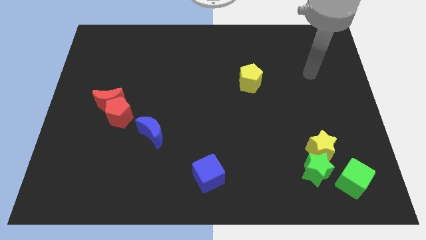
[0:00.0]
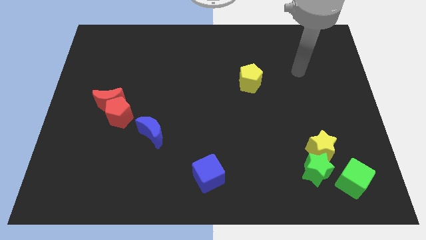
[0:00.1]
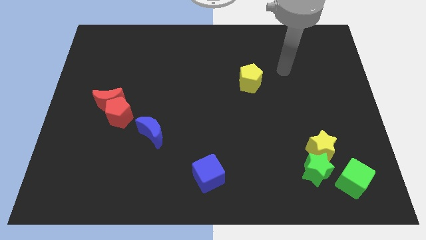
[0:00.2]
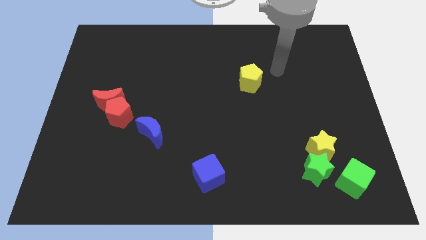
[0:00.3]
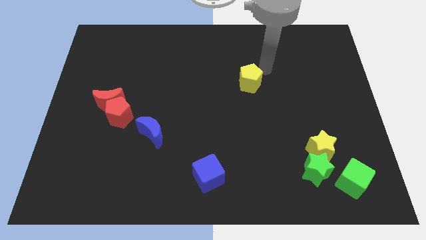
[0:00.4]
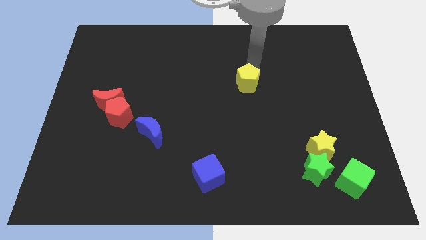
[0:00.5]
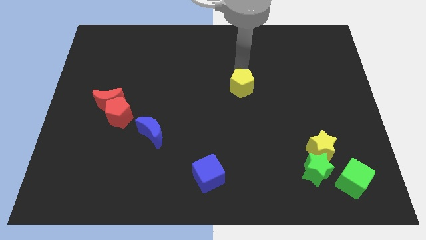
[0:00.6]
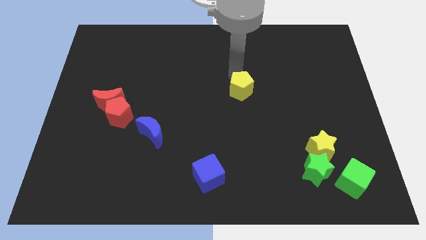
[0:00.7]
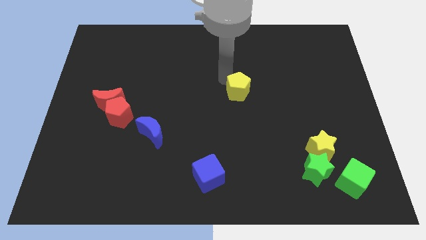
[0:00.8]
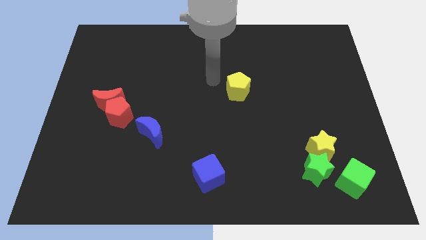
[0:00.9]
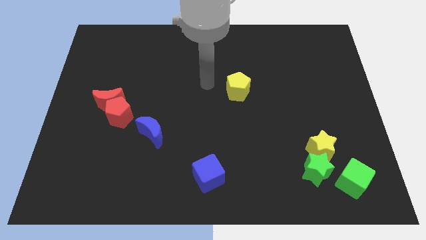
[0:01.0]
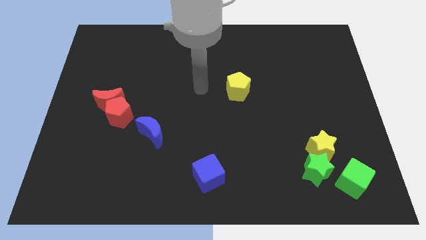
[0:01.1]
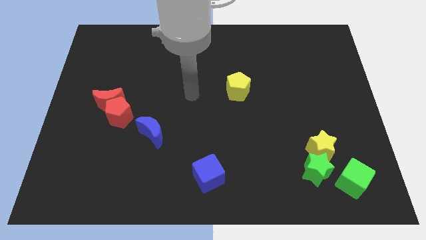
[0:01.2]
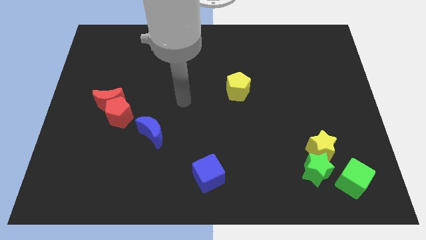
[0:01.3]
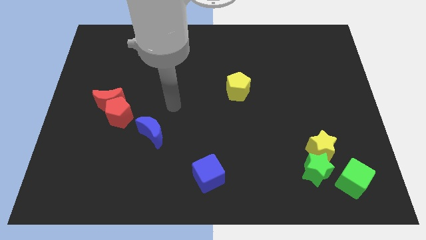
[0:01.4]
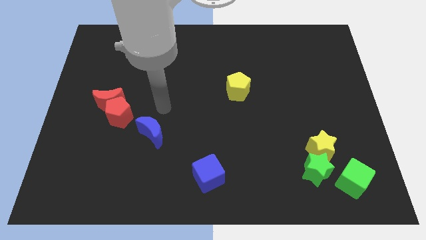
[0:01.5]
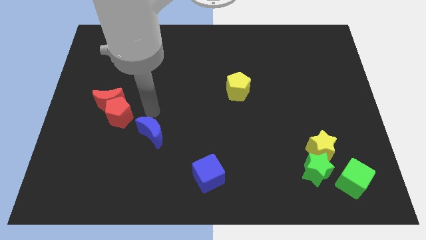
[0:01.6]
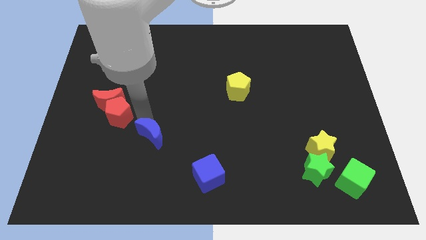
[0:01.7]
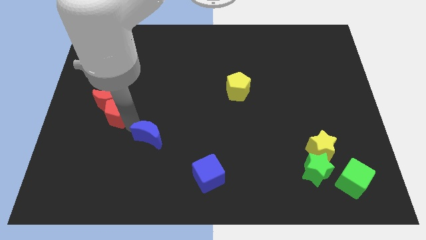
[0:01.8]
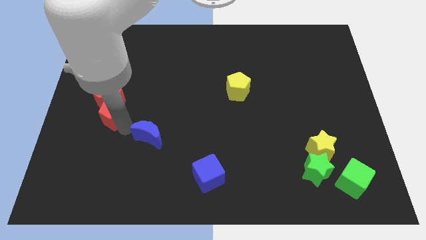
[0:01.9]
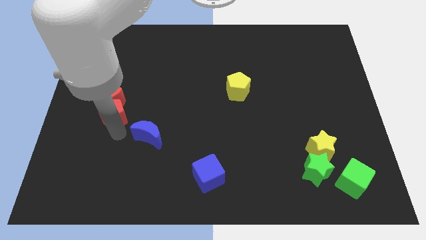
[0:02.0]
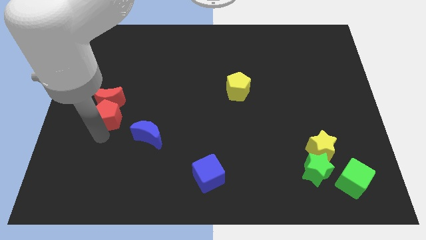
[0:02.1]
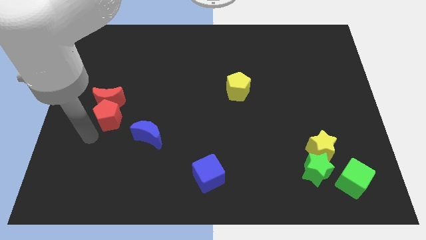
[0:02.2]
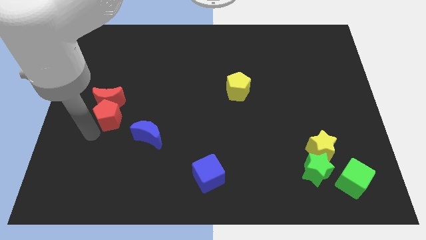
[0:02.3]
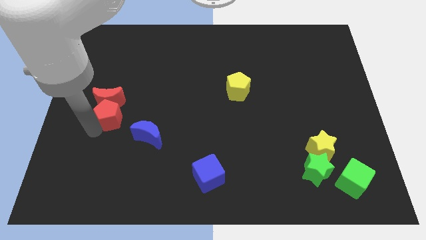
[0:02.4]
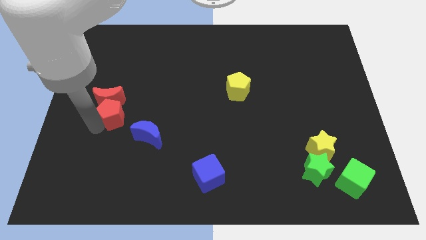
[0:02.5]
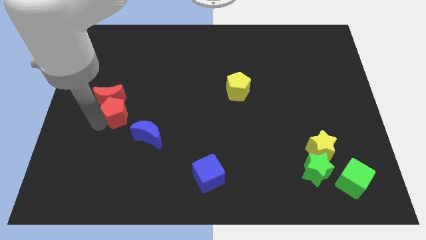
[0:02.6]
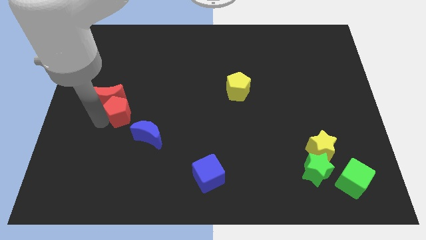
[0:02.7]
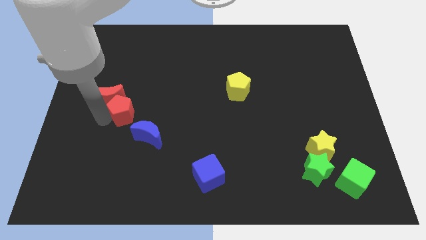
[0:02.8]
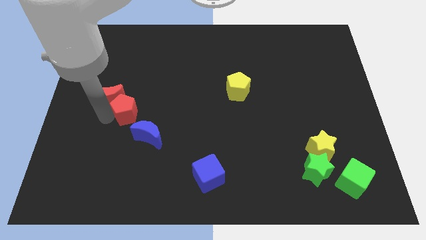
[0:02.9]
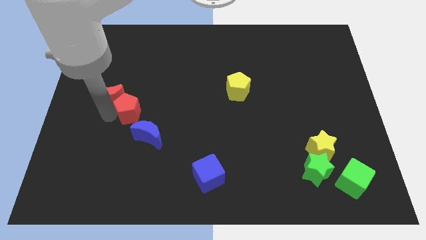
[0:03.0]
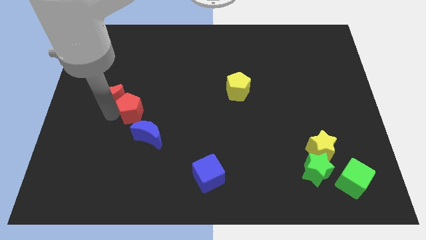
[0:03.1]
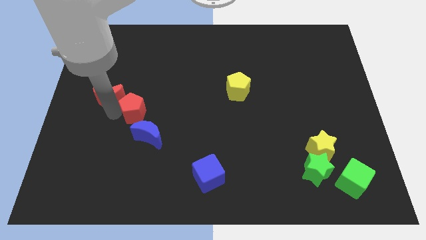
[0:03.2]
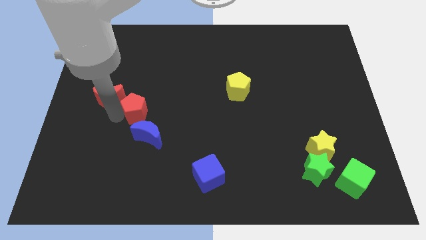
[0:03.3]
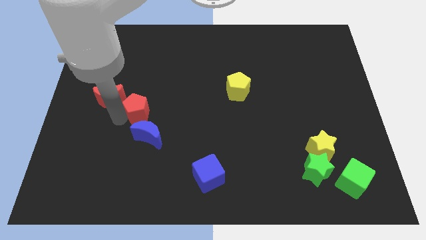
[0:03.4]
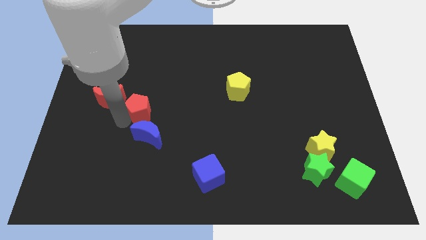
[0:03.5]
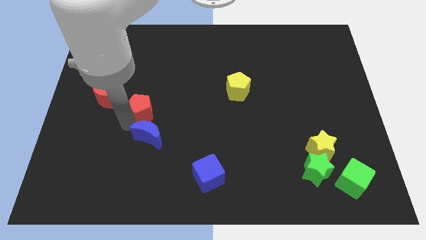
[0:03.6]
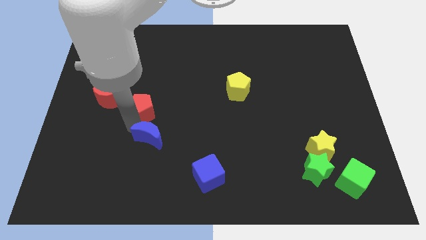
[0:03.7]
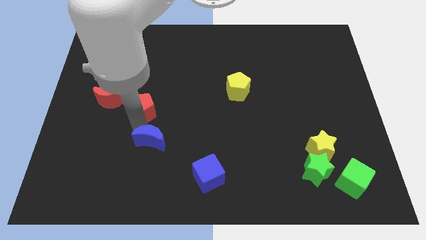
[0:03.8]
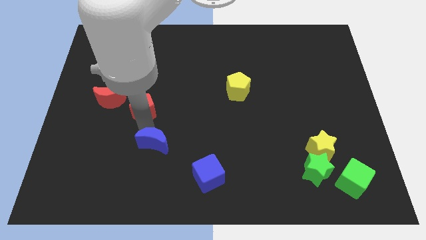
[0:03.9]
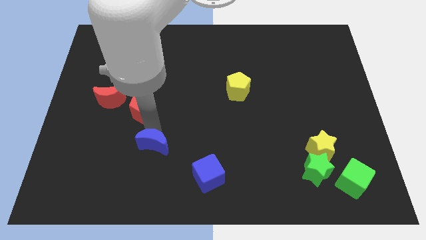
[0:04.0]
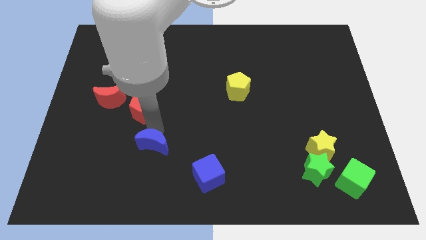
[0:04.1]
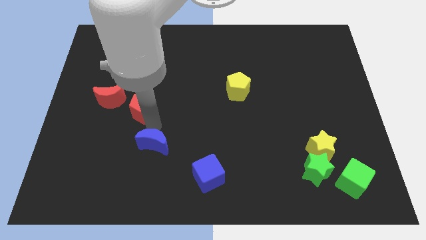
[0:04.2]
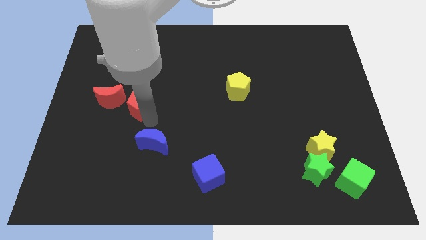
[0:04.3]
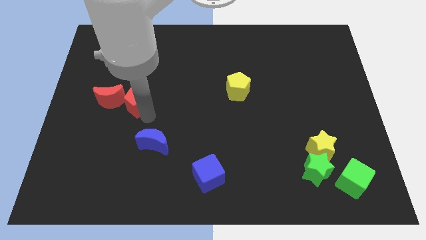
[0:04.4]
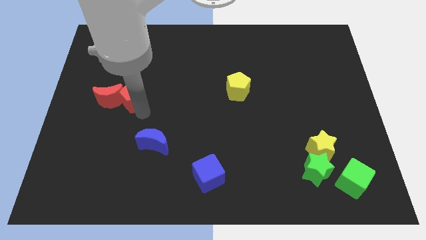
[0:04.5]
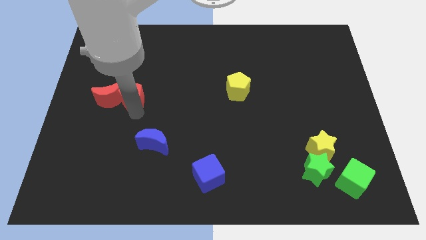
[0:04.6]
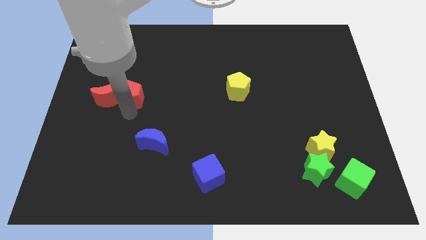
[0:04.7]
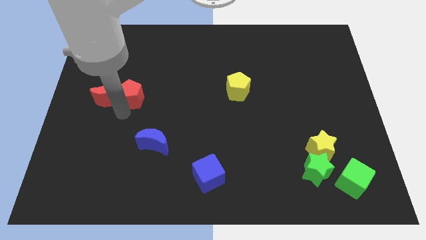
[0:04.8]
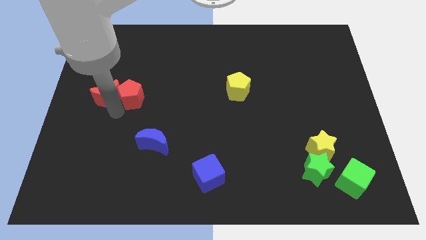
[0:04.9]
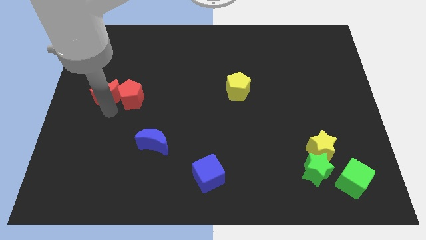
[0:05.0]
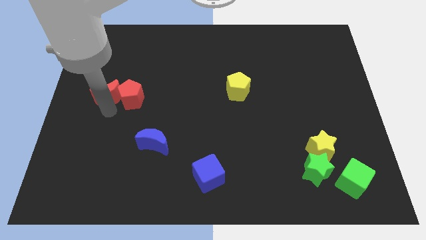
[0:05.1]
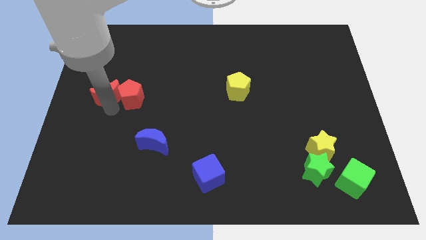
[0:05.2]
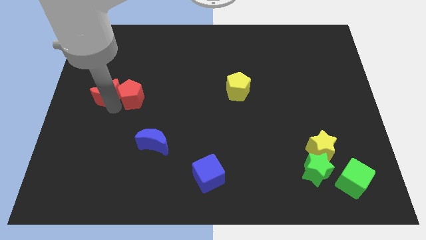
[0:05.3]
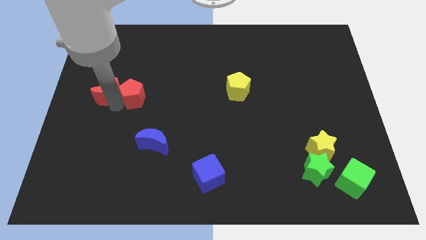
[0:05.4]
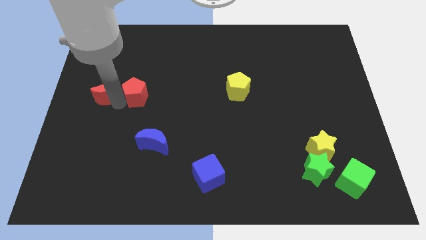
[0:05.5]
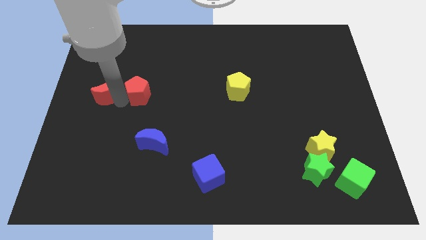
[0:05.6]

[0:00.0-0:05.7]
move the red pentagon slightly upwards and then to the right

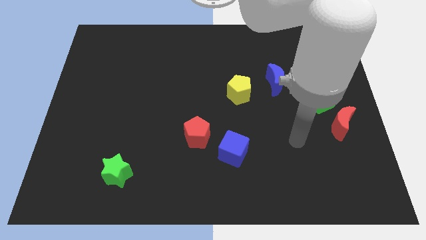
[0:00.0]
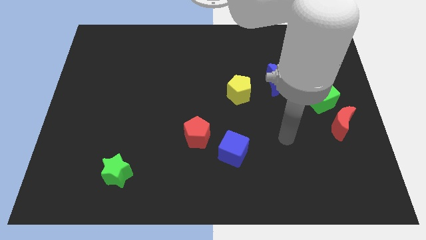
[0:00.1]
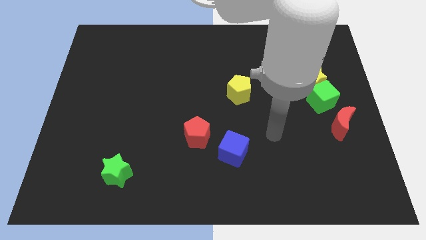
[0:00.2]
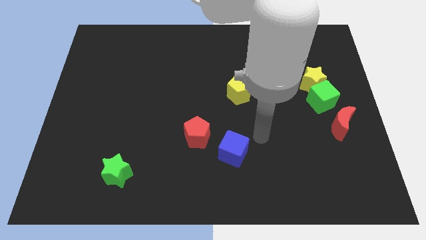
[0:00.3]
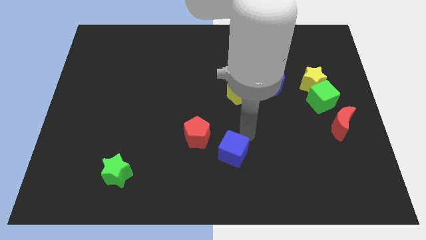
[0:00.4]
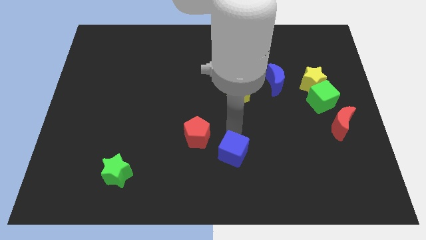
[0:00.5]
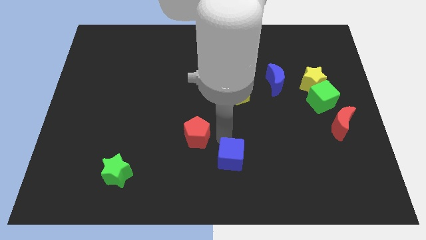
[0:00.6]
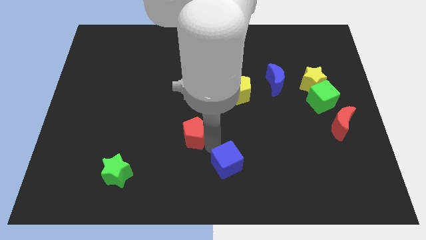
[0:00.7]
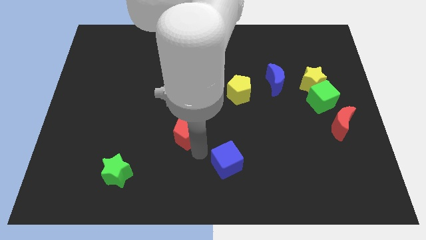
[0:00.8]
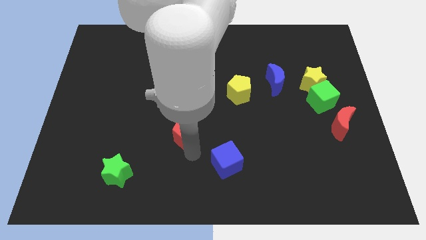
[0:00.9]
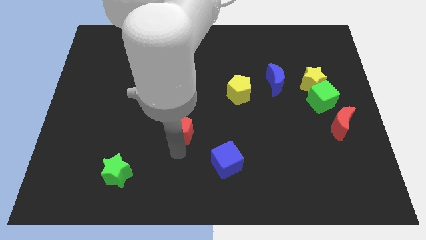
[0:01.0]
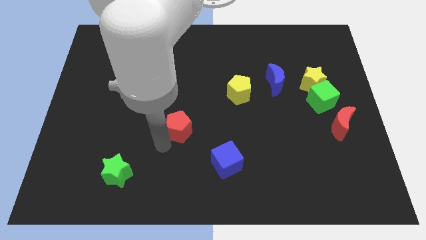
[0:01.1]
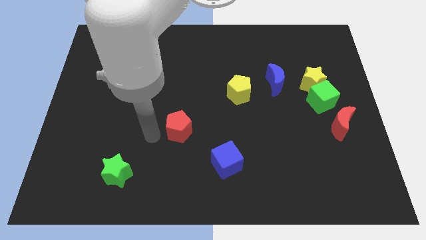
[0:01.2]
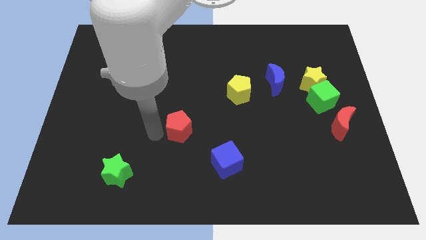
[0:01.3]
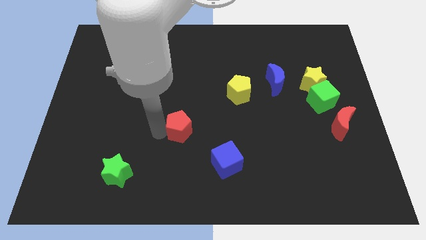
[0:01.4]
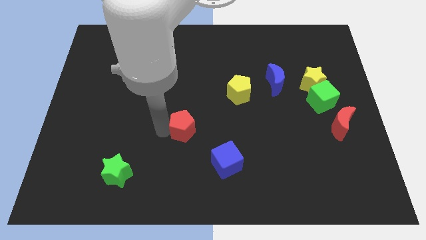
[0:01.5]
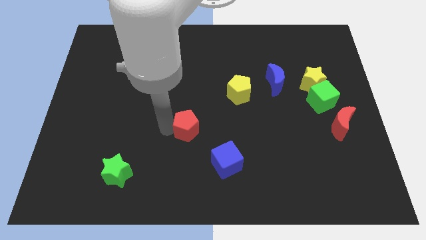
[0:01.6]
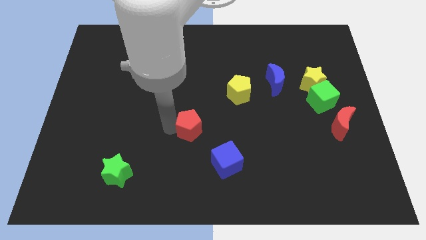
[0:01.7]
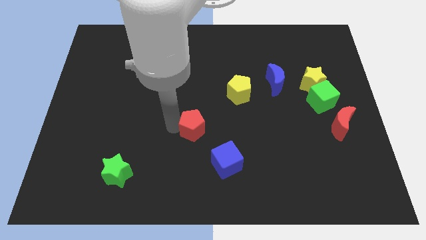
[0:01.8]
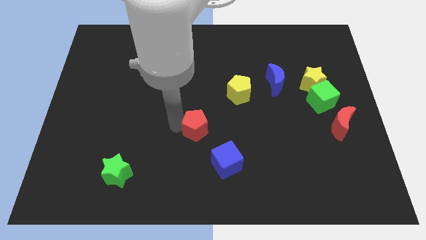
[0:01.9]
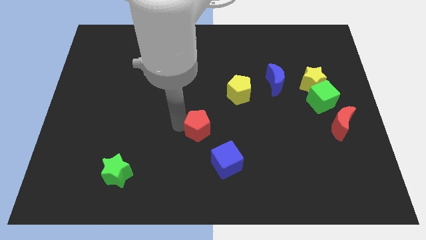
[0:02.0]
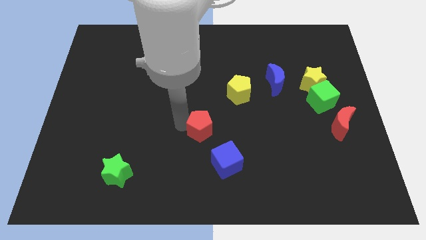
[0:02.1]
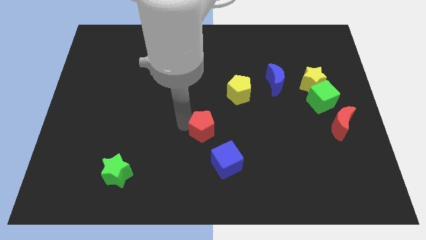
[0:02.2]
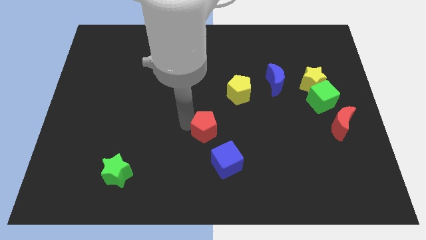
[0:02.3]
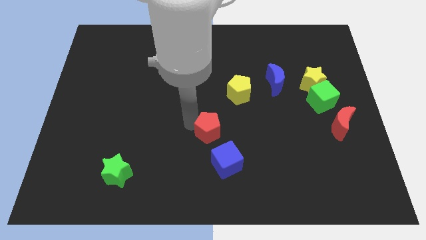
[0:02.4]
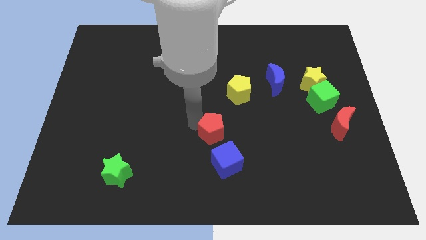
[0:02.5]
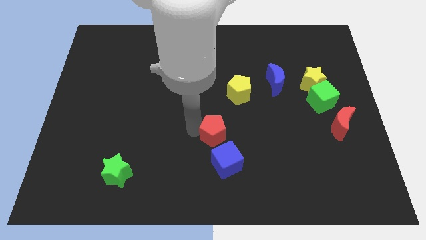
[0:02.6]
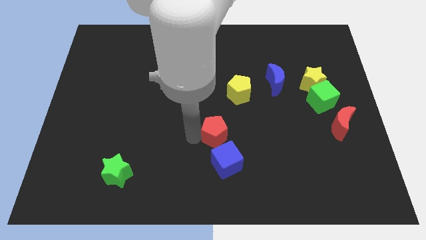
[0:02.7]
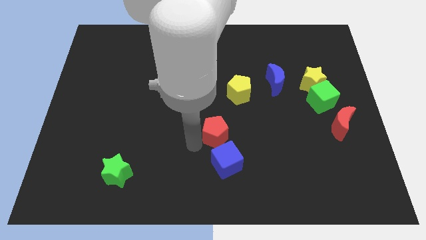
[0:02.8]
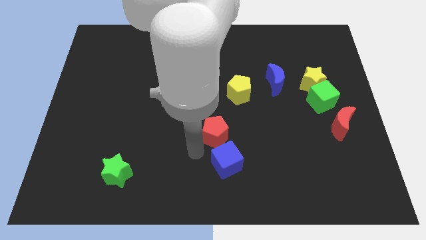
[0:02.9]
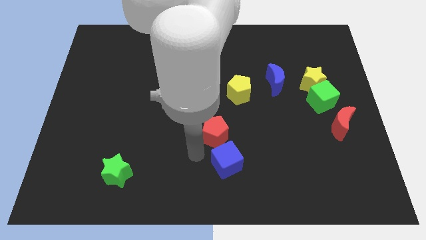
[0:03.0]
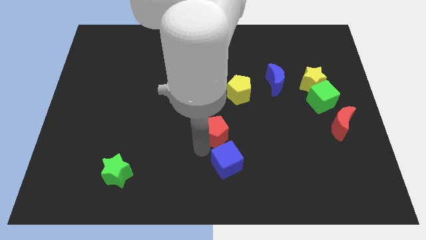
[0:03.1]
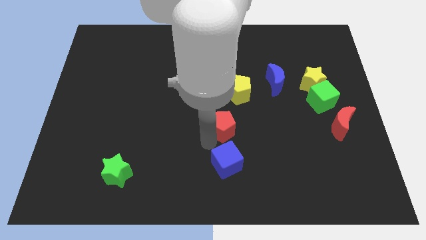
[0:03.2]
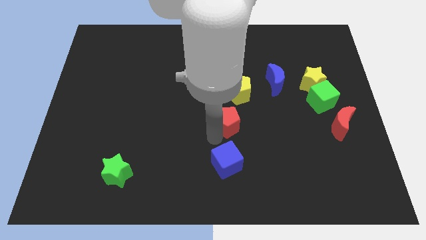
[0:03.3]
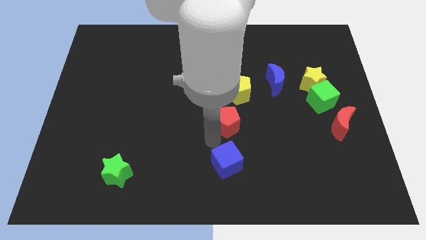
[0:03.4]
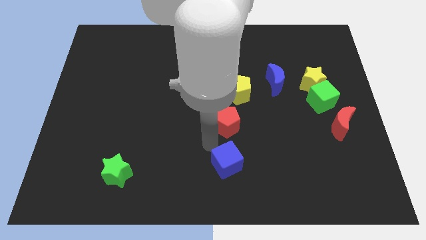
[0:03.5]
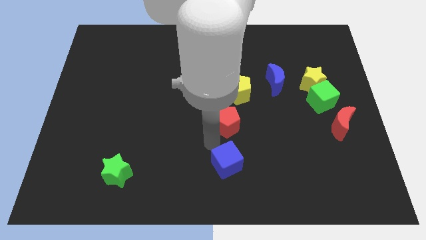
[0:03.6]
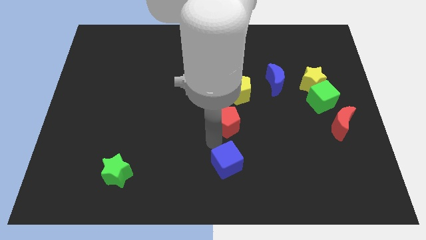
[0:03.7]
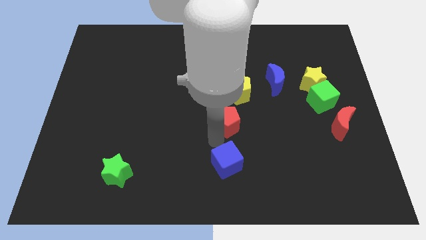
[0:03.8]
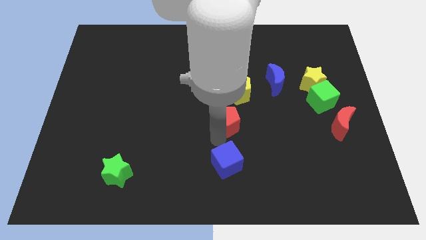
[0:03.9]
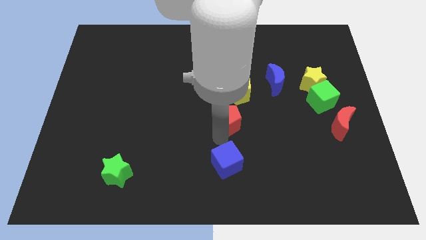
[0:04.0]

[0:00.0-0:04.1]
move the red pentagon up and to the right a little bit
